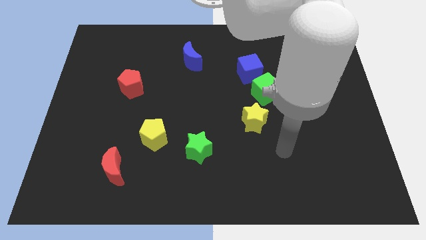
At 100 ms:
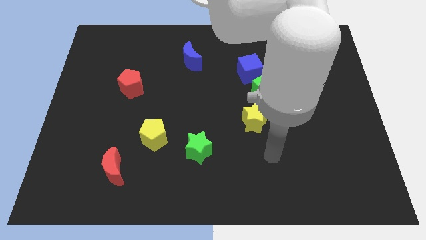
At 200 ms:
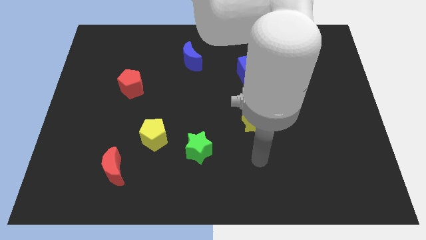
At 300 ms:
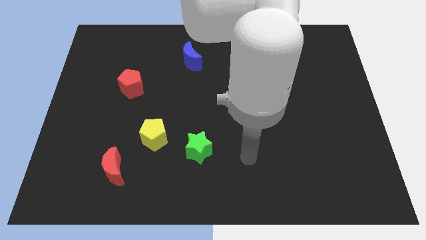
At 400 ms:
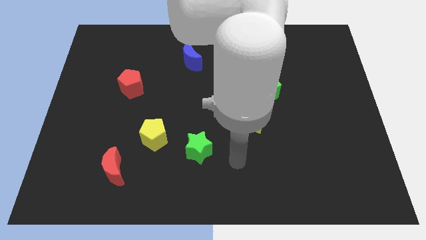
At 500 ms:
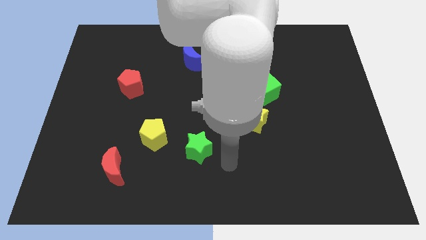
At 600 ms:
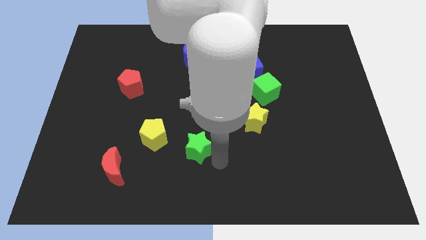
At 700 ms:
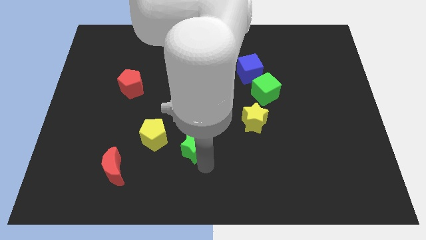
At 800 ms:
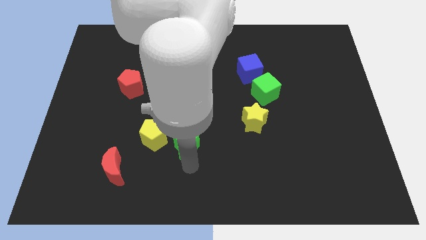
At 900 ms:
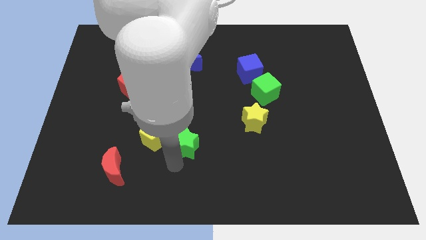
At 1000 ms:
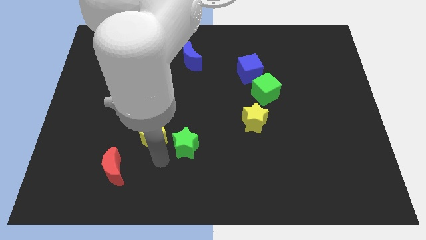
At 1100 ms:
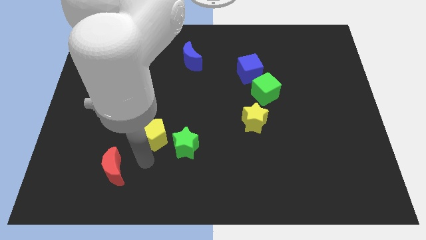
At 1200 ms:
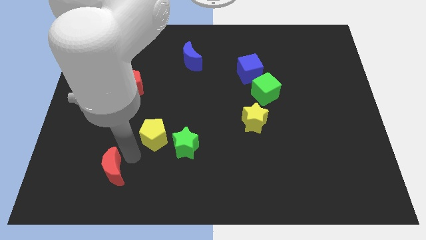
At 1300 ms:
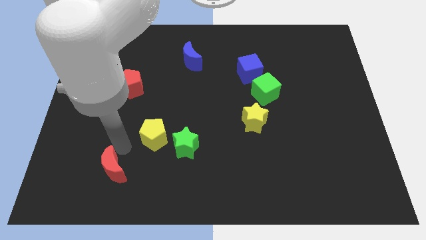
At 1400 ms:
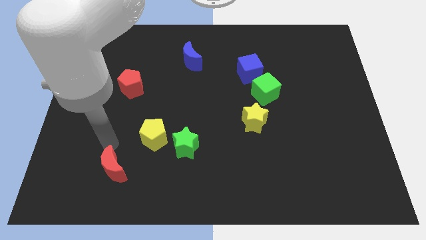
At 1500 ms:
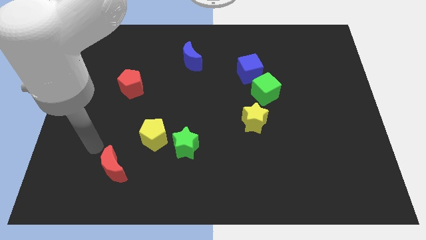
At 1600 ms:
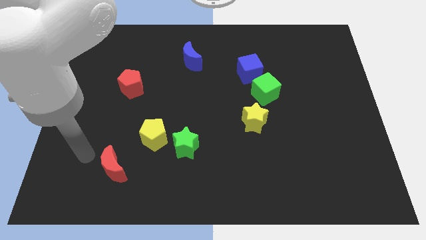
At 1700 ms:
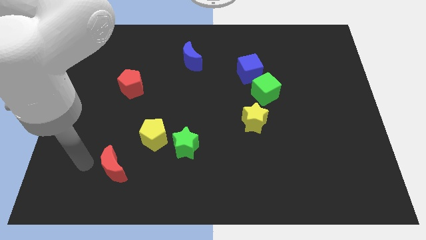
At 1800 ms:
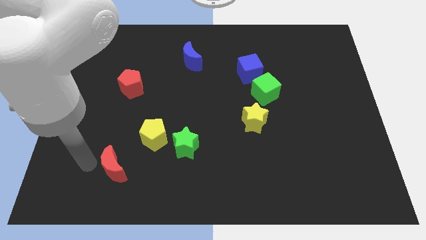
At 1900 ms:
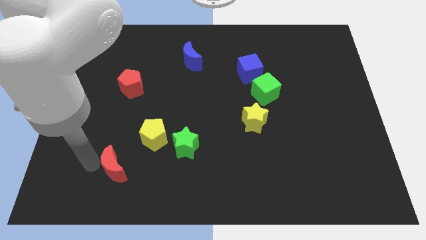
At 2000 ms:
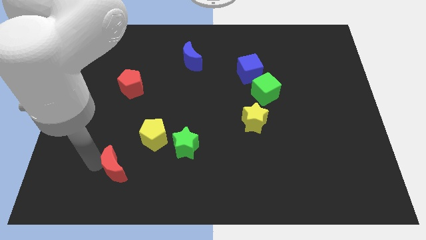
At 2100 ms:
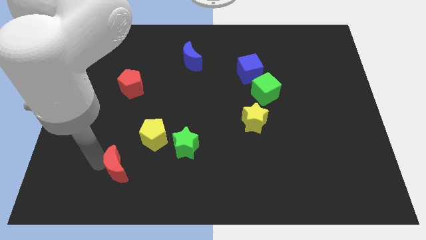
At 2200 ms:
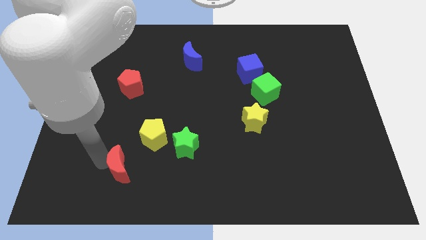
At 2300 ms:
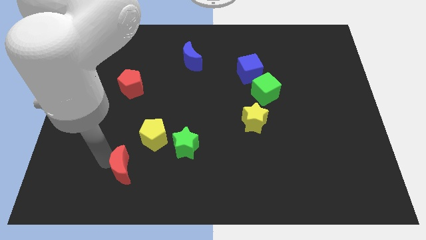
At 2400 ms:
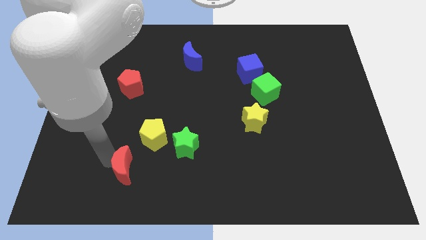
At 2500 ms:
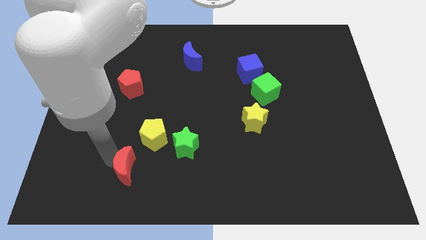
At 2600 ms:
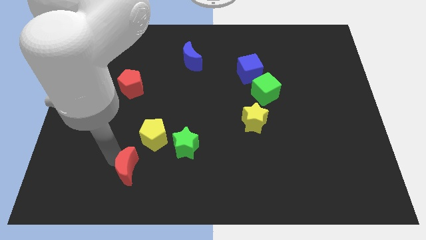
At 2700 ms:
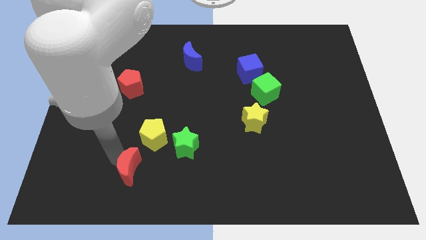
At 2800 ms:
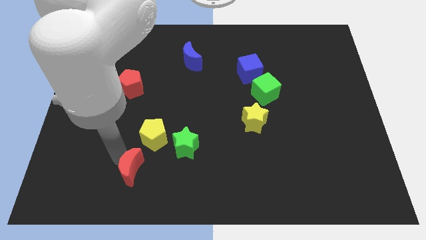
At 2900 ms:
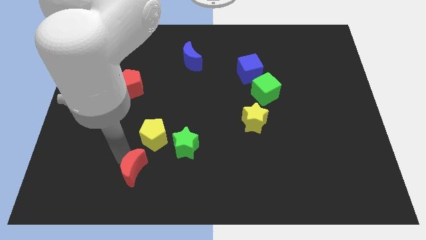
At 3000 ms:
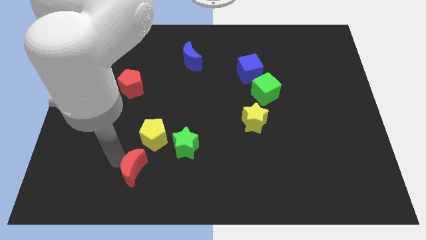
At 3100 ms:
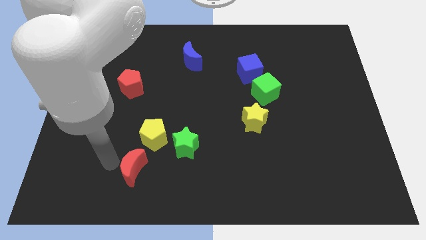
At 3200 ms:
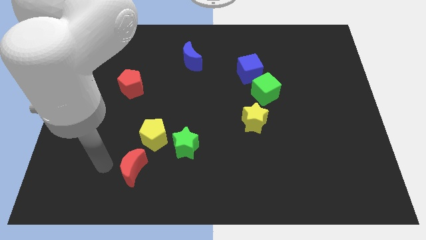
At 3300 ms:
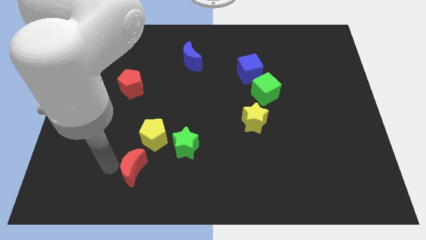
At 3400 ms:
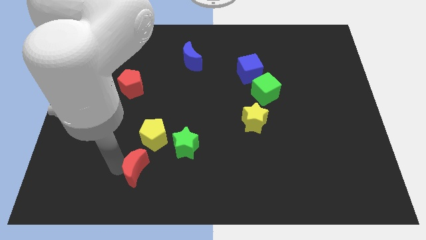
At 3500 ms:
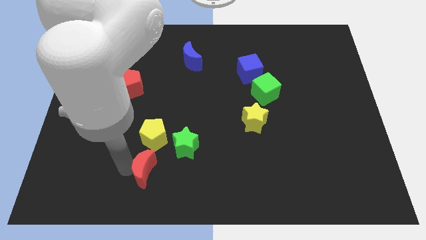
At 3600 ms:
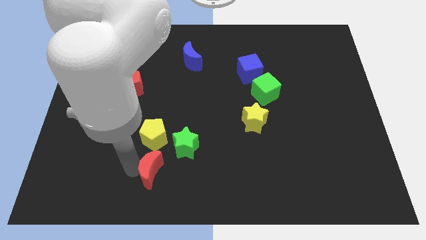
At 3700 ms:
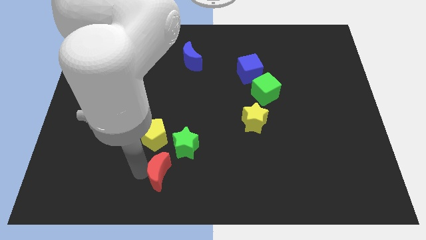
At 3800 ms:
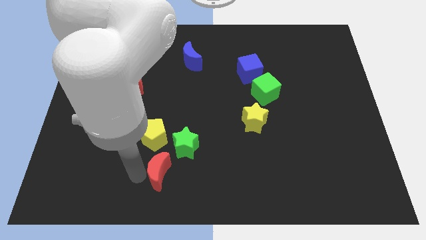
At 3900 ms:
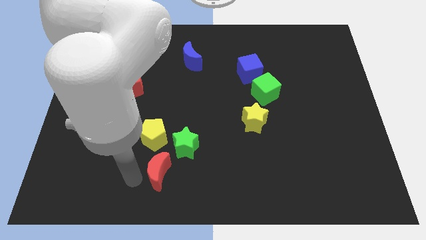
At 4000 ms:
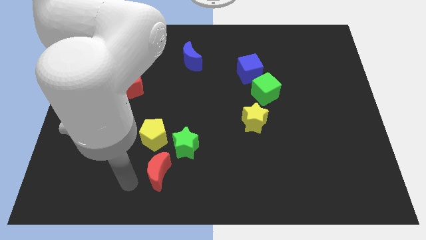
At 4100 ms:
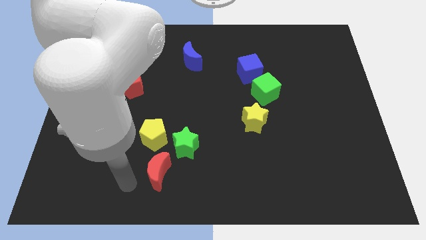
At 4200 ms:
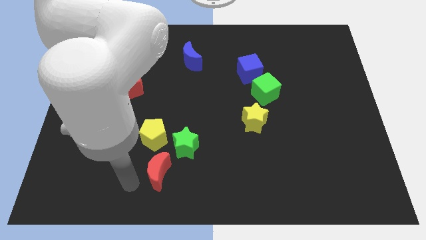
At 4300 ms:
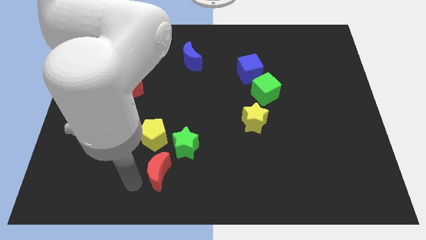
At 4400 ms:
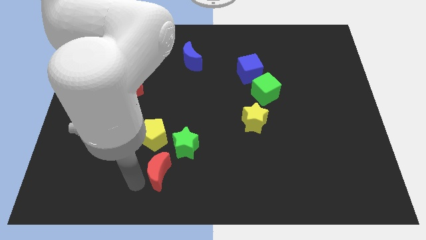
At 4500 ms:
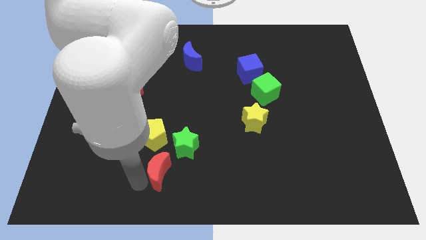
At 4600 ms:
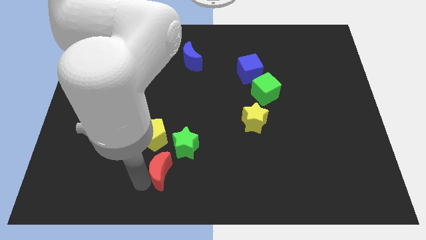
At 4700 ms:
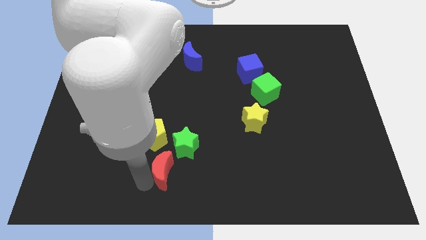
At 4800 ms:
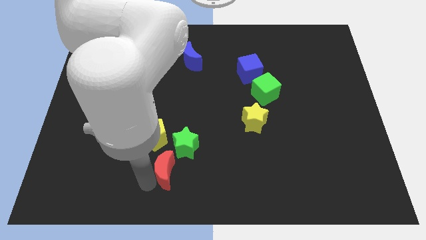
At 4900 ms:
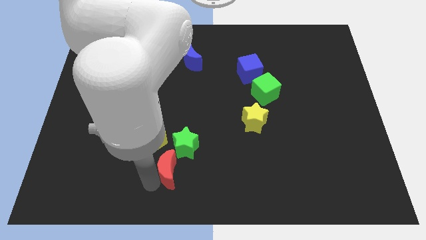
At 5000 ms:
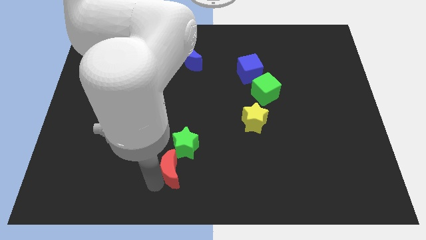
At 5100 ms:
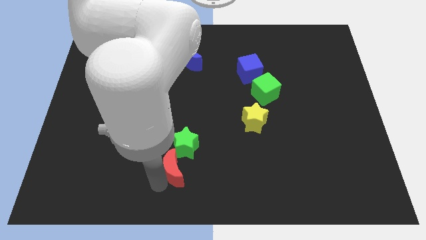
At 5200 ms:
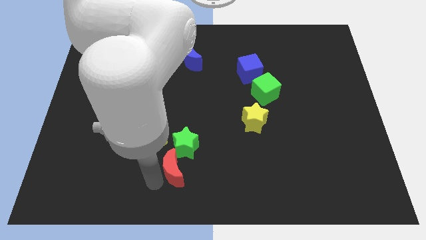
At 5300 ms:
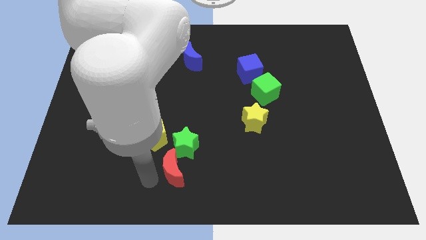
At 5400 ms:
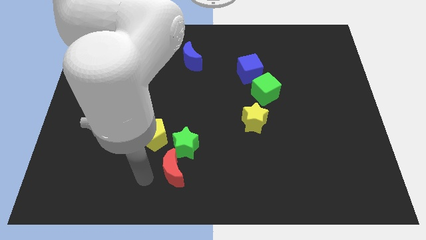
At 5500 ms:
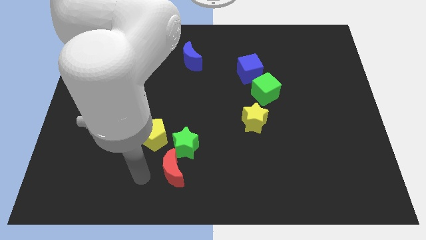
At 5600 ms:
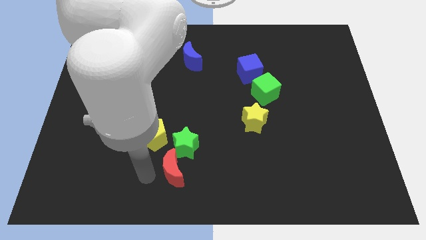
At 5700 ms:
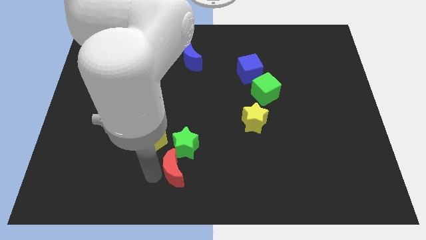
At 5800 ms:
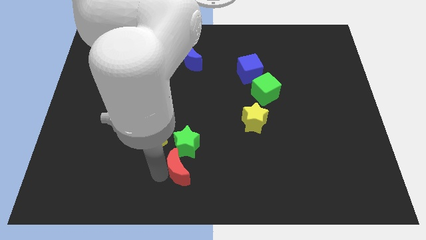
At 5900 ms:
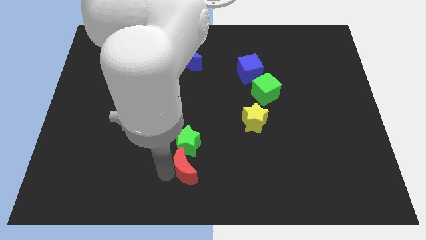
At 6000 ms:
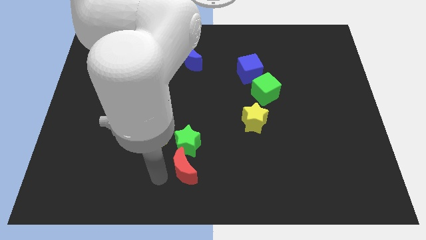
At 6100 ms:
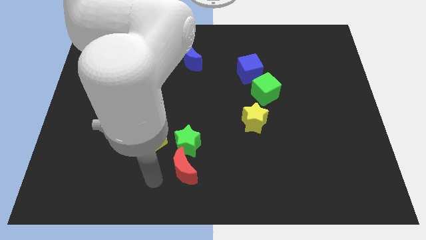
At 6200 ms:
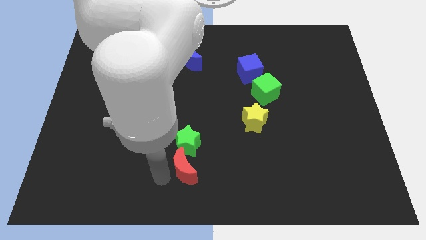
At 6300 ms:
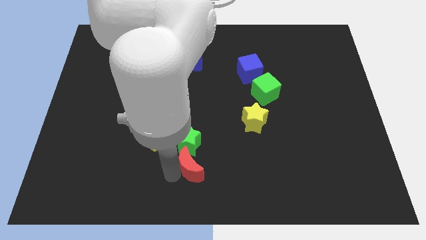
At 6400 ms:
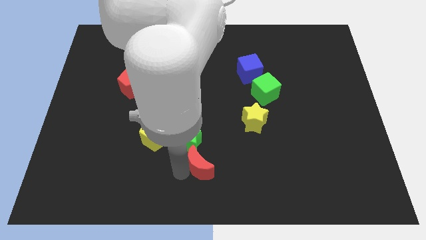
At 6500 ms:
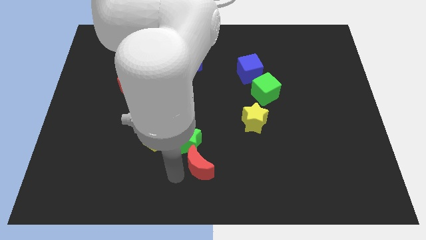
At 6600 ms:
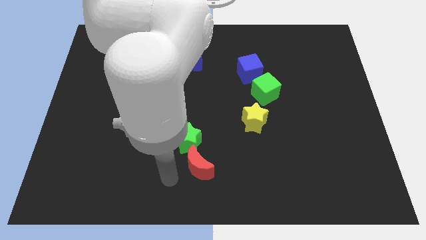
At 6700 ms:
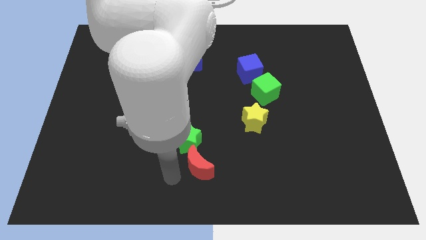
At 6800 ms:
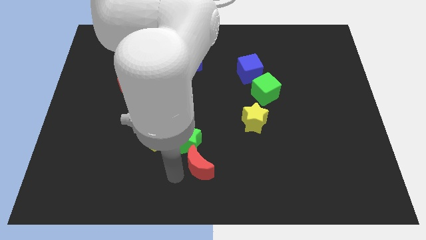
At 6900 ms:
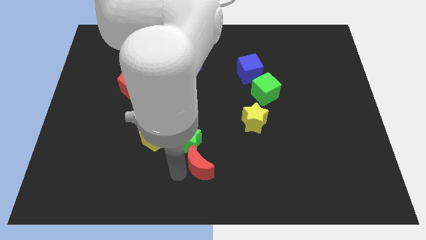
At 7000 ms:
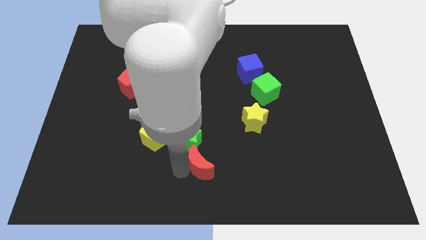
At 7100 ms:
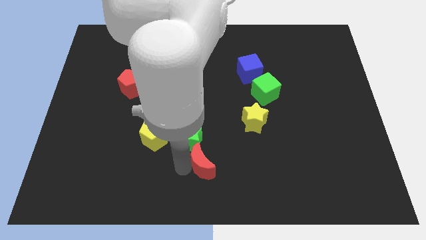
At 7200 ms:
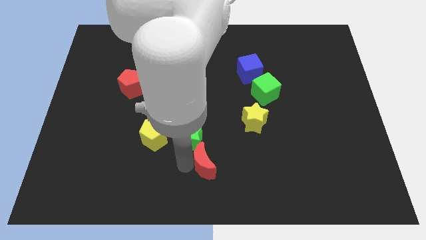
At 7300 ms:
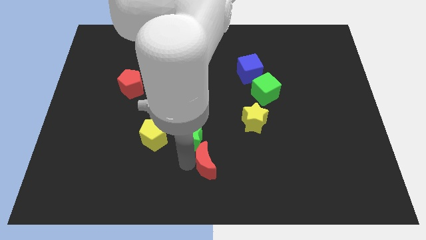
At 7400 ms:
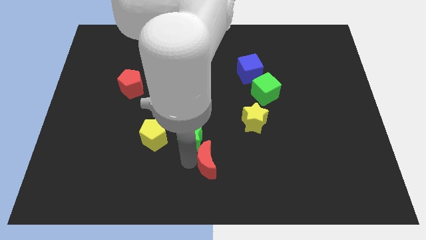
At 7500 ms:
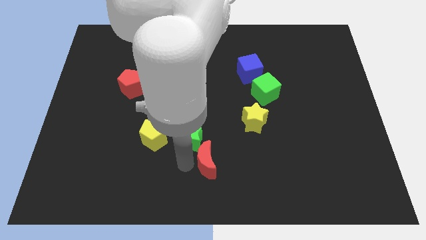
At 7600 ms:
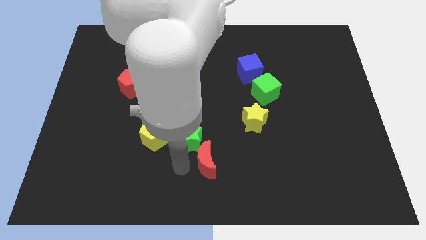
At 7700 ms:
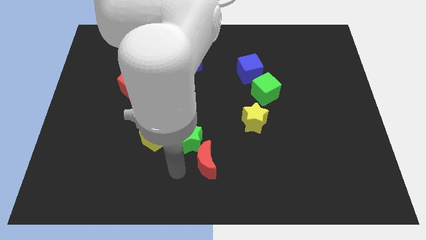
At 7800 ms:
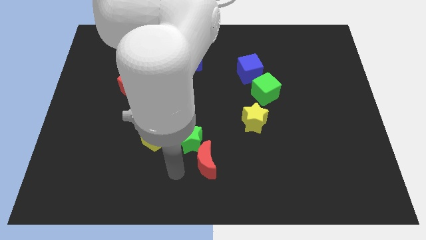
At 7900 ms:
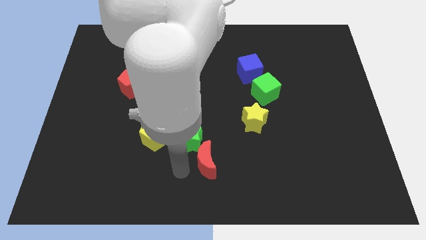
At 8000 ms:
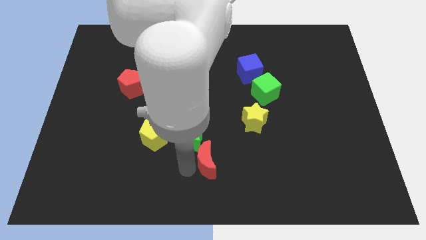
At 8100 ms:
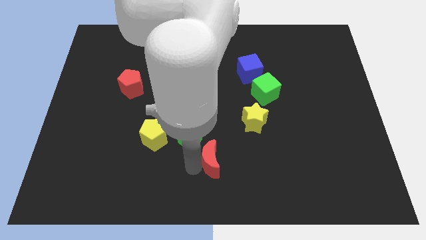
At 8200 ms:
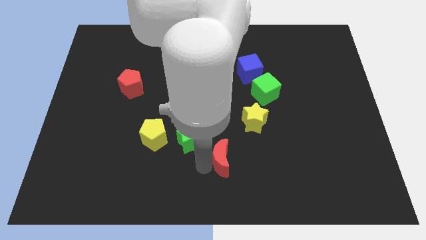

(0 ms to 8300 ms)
put the red moon to the right side of the green star
